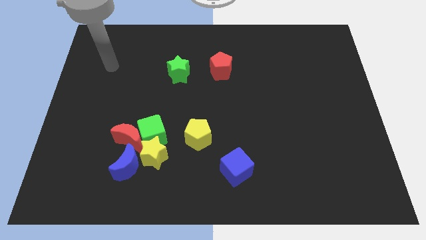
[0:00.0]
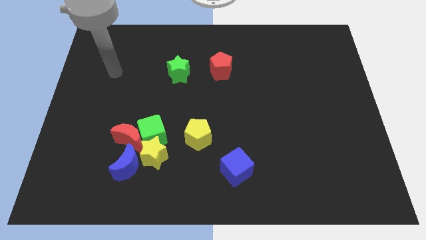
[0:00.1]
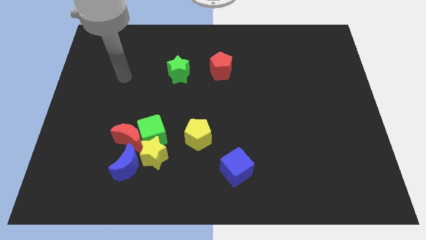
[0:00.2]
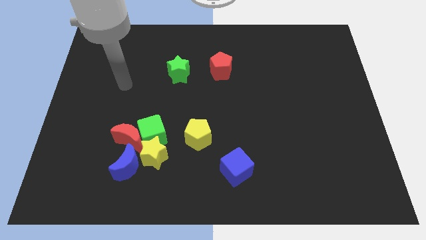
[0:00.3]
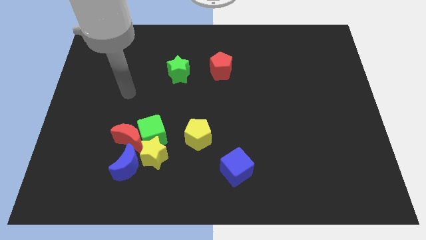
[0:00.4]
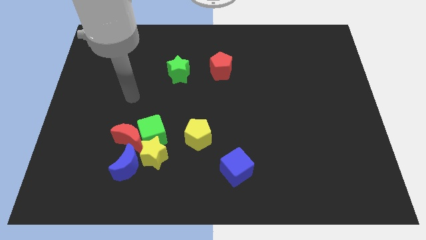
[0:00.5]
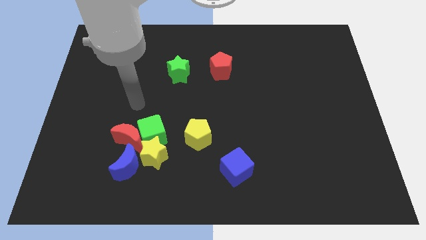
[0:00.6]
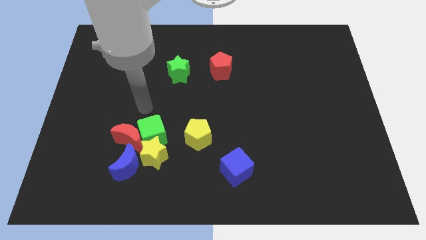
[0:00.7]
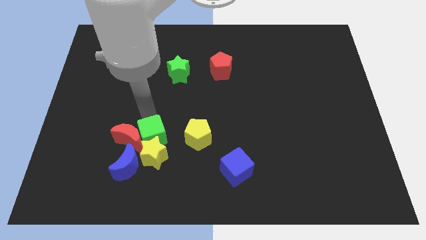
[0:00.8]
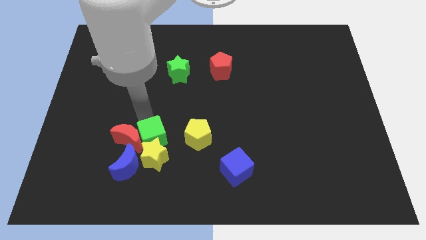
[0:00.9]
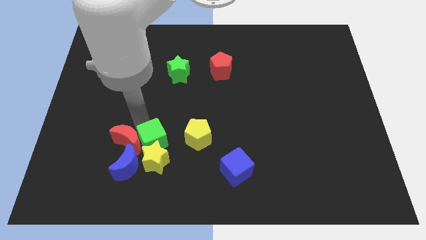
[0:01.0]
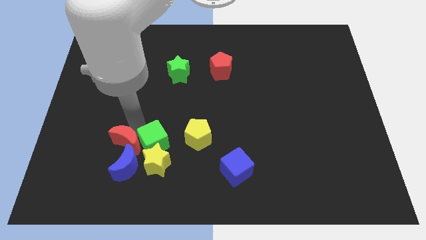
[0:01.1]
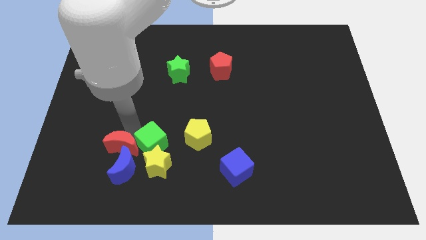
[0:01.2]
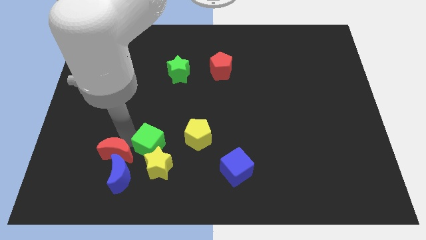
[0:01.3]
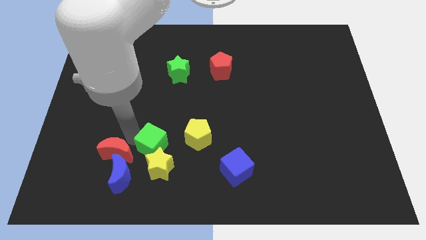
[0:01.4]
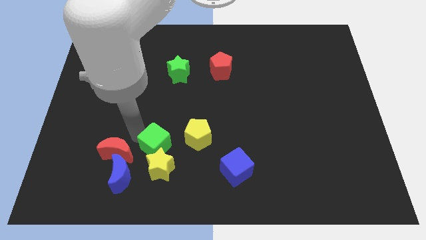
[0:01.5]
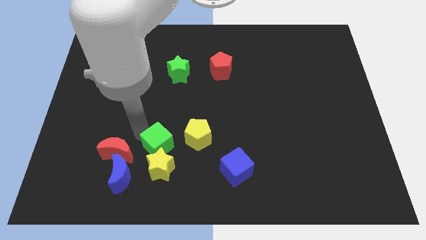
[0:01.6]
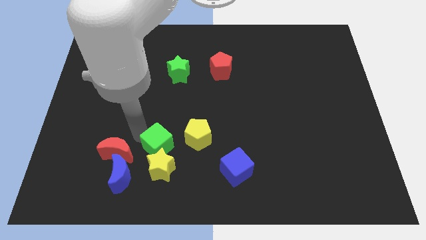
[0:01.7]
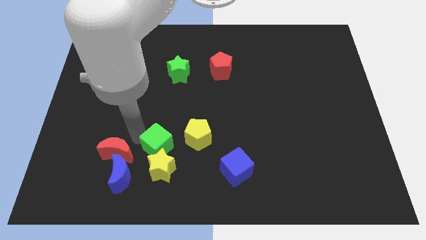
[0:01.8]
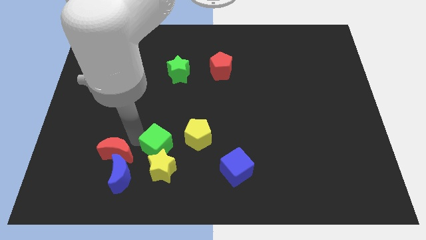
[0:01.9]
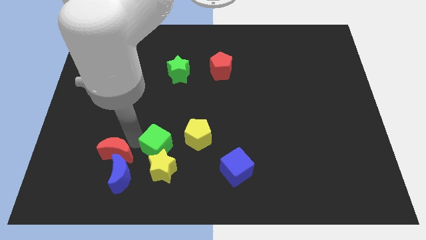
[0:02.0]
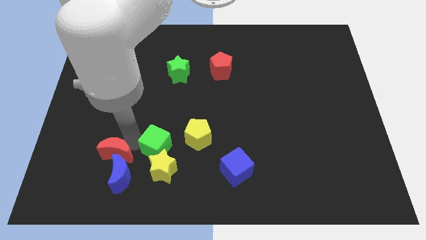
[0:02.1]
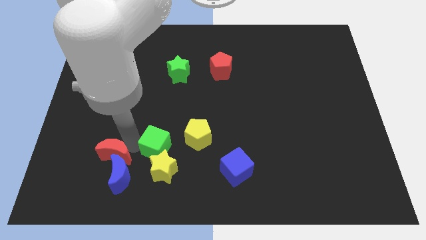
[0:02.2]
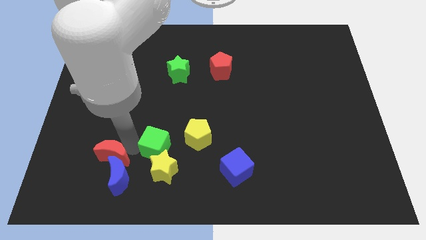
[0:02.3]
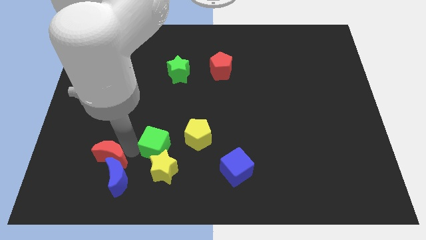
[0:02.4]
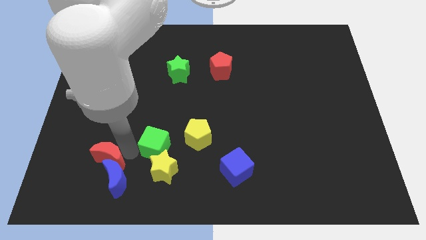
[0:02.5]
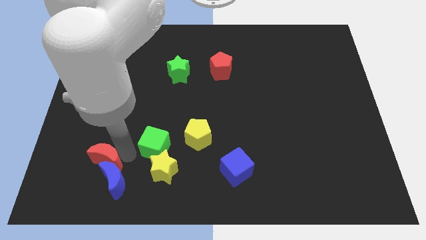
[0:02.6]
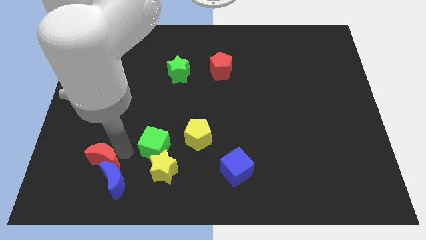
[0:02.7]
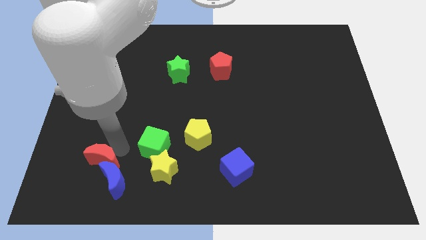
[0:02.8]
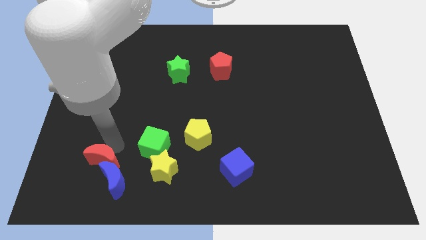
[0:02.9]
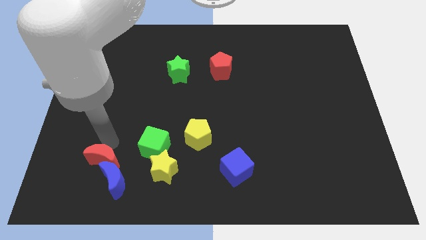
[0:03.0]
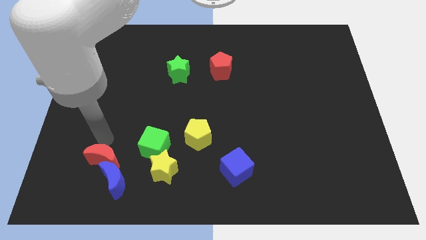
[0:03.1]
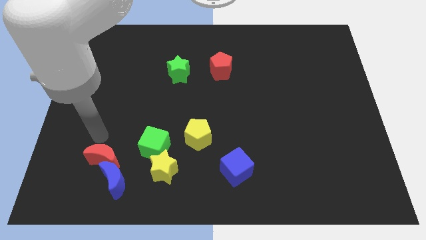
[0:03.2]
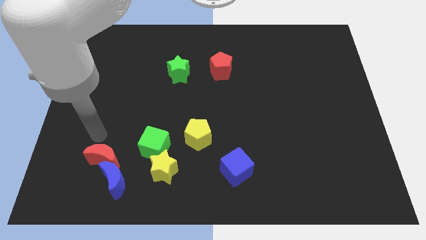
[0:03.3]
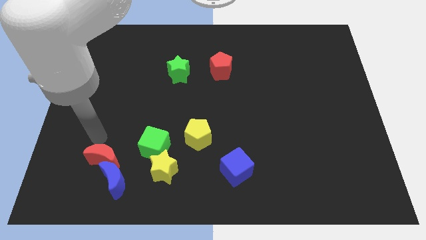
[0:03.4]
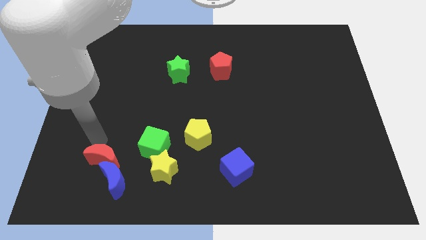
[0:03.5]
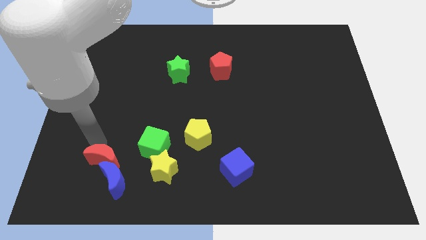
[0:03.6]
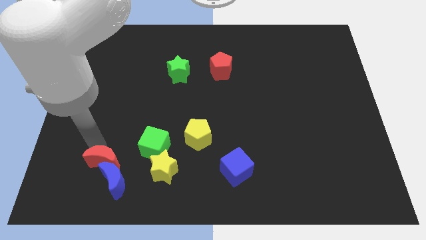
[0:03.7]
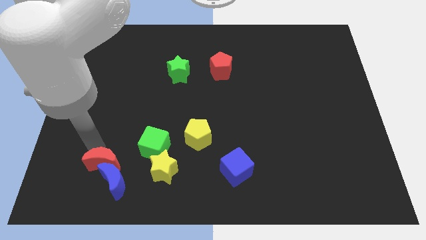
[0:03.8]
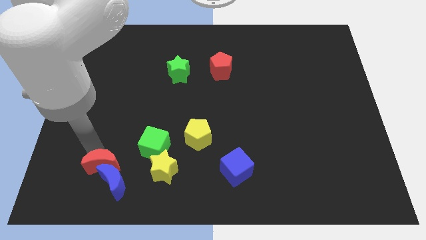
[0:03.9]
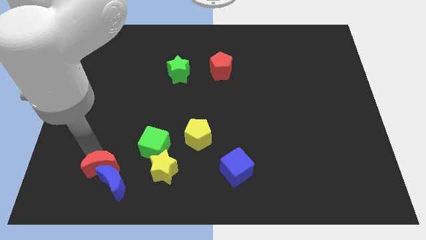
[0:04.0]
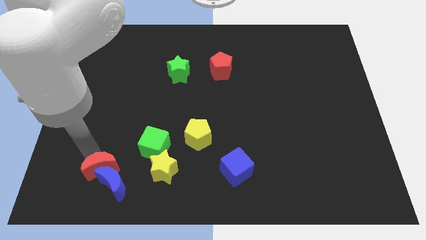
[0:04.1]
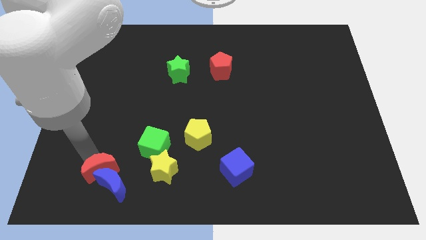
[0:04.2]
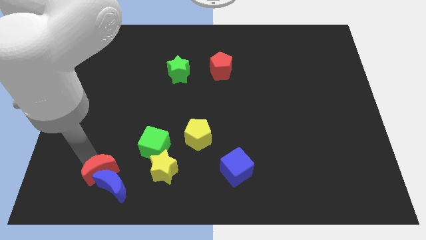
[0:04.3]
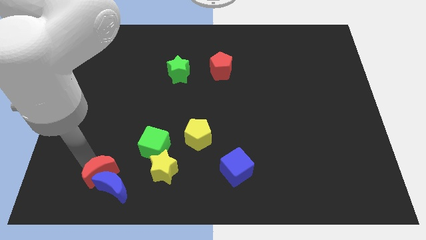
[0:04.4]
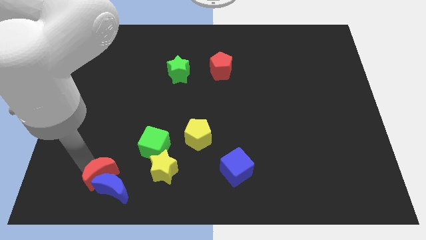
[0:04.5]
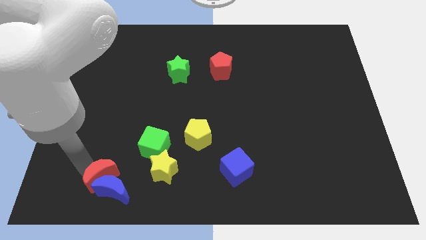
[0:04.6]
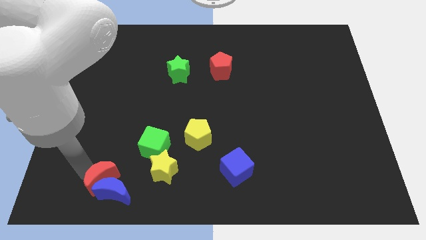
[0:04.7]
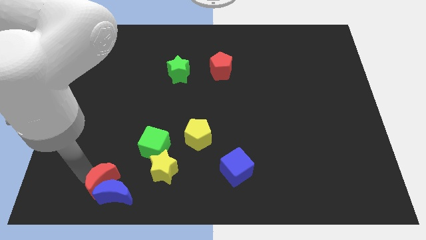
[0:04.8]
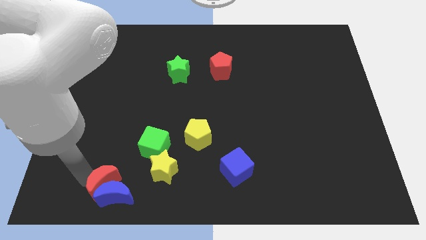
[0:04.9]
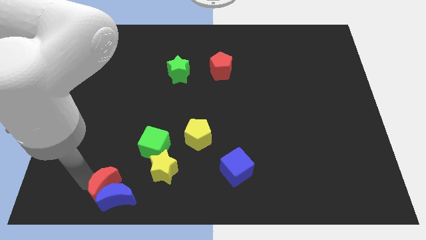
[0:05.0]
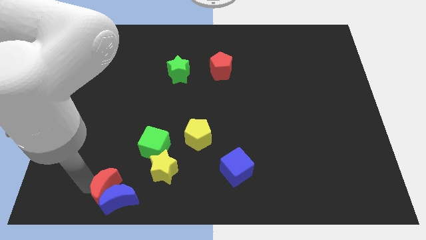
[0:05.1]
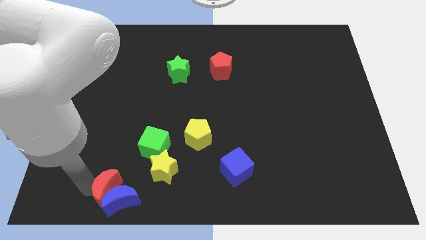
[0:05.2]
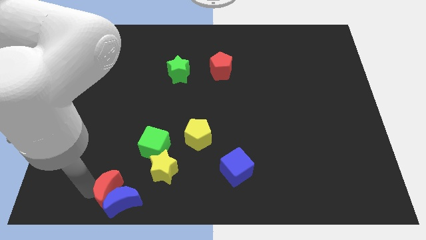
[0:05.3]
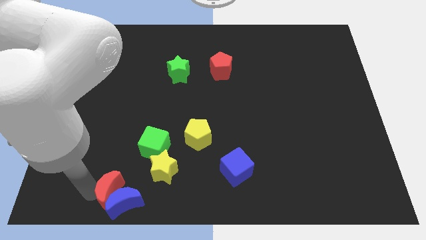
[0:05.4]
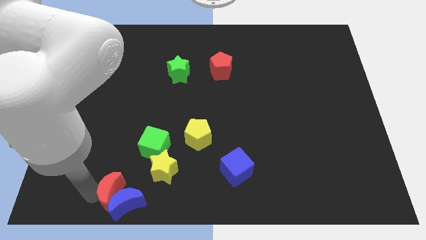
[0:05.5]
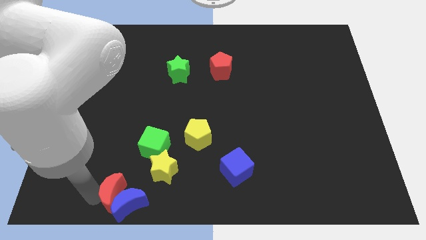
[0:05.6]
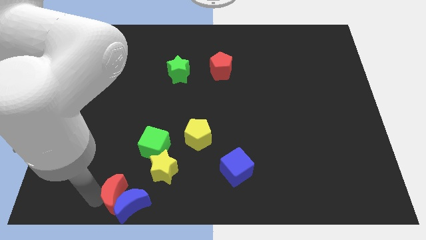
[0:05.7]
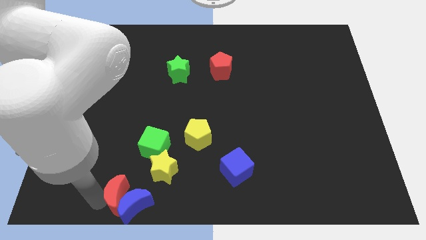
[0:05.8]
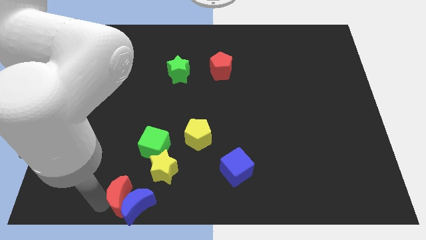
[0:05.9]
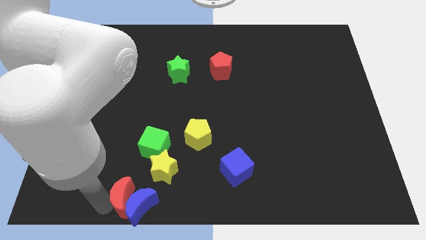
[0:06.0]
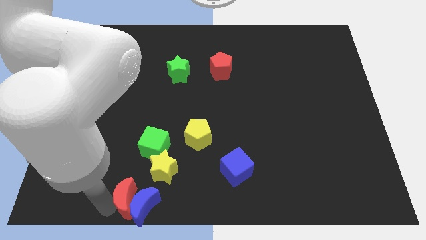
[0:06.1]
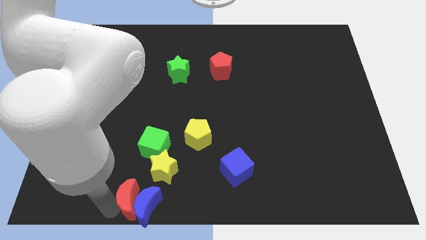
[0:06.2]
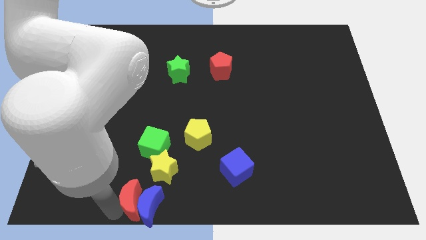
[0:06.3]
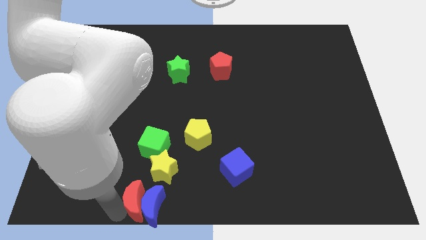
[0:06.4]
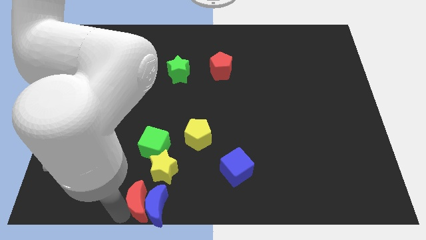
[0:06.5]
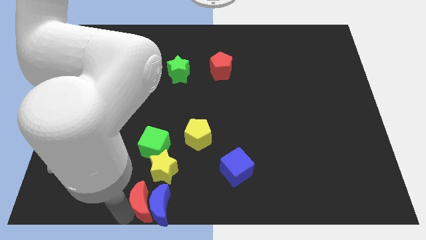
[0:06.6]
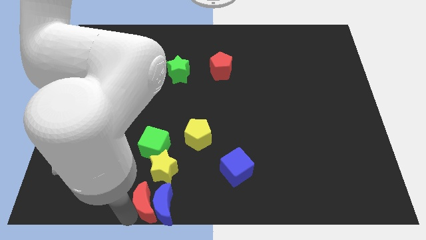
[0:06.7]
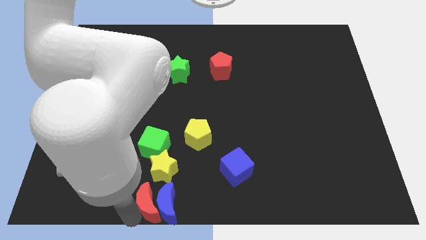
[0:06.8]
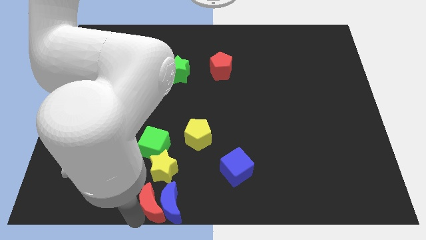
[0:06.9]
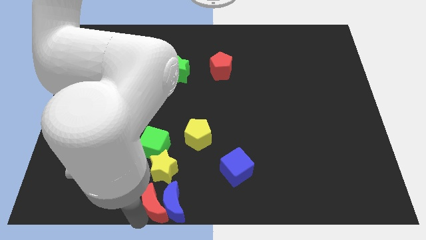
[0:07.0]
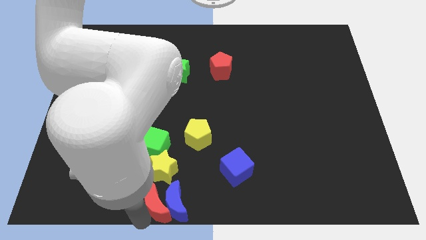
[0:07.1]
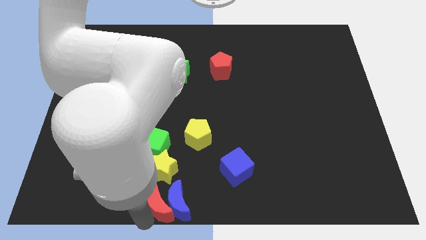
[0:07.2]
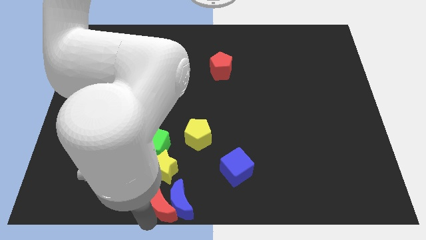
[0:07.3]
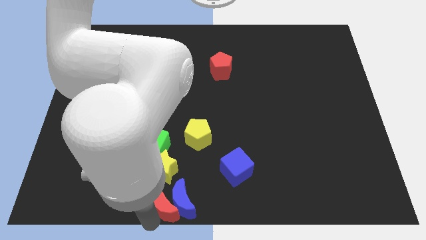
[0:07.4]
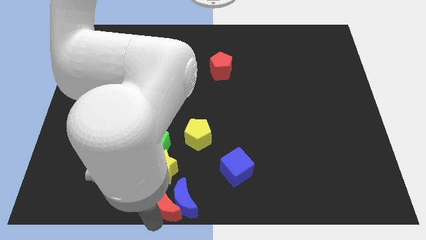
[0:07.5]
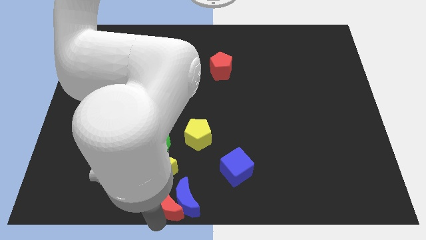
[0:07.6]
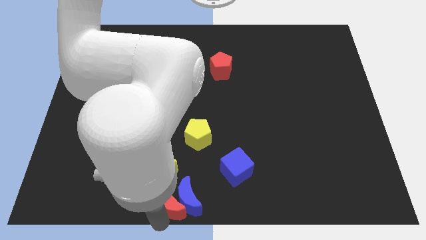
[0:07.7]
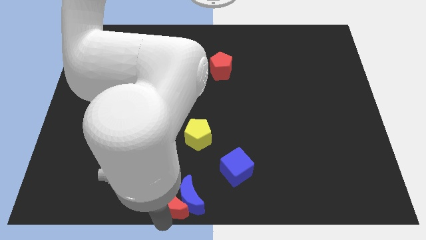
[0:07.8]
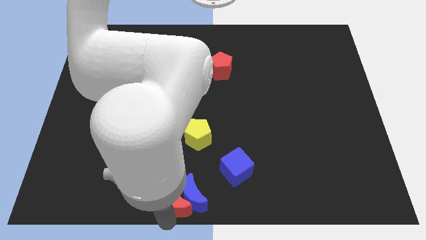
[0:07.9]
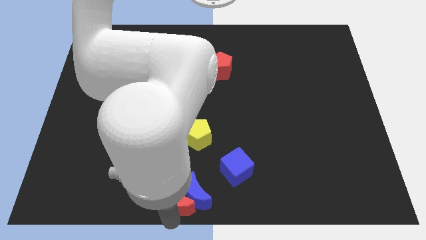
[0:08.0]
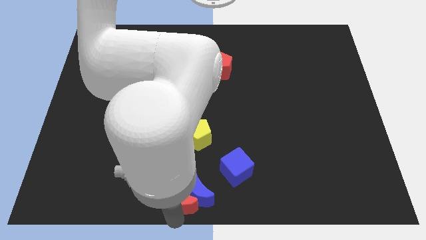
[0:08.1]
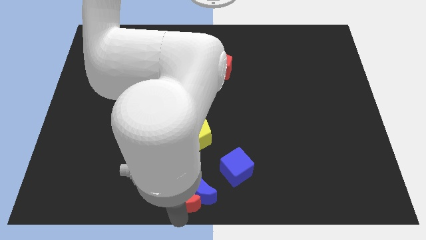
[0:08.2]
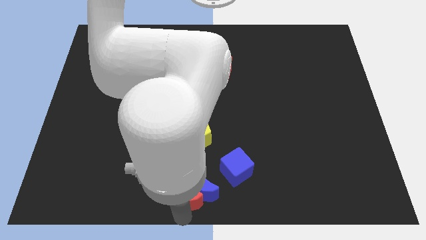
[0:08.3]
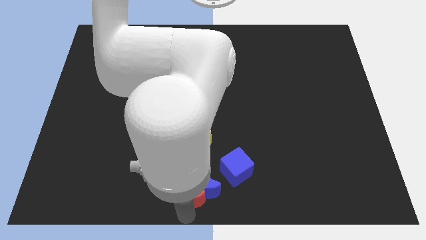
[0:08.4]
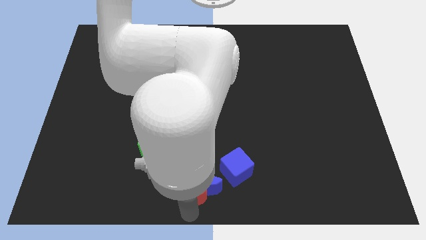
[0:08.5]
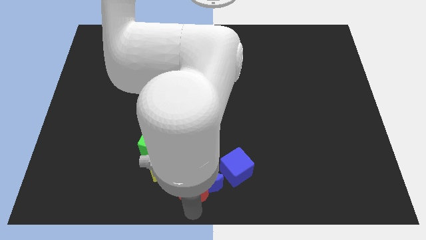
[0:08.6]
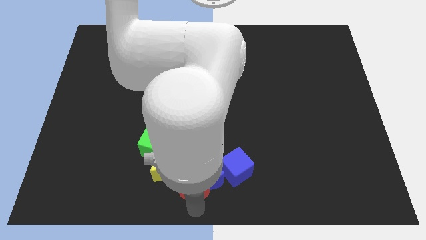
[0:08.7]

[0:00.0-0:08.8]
slide the red moon to the left of the blue cube
